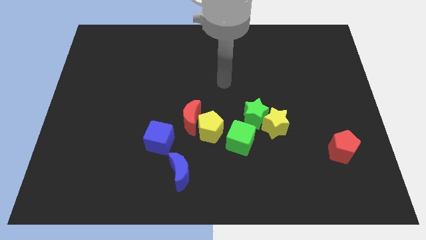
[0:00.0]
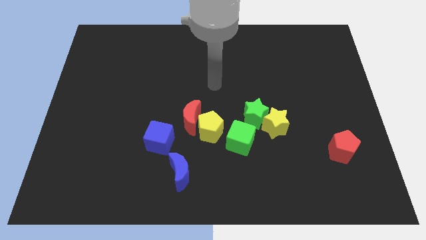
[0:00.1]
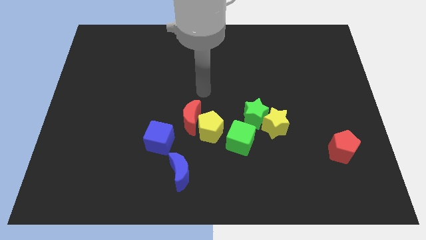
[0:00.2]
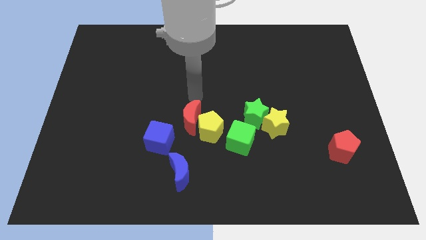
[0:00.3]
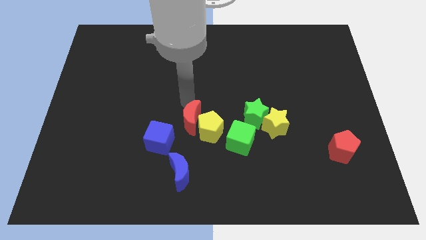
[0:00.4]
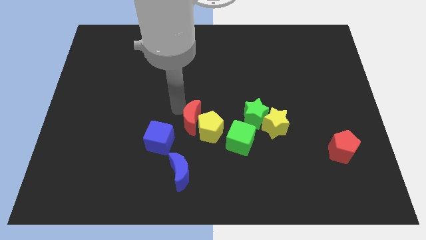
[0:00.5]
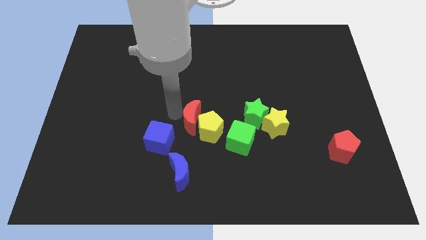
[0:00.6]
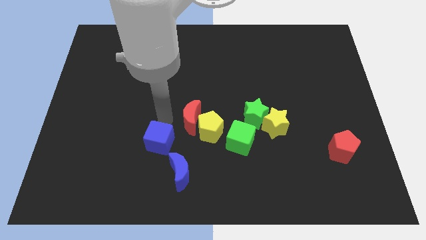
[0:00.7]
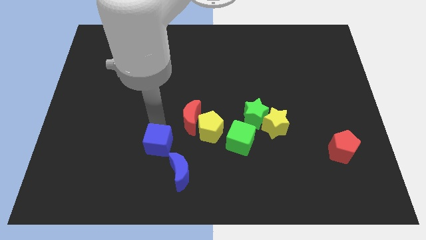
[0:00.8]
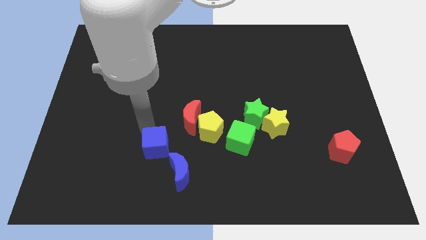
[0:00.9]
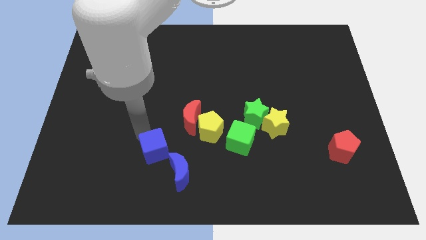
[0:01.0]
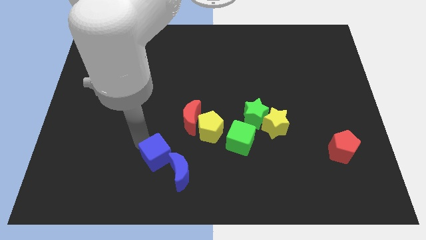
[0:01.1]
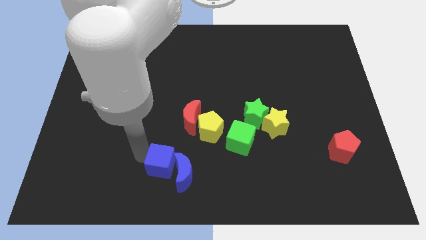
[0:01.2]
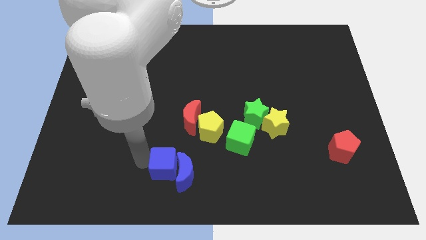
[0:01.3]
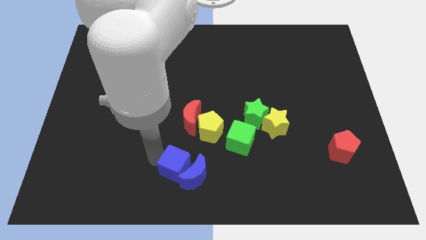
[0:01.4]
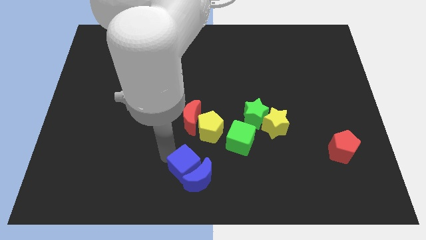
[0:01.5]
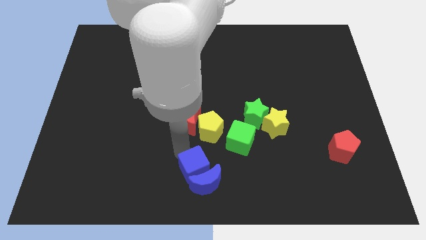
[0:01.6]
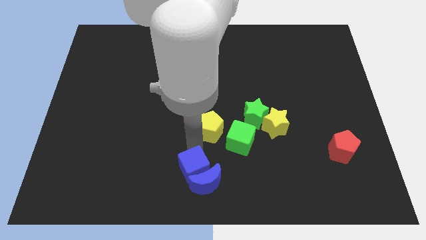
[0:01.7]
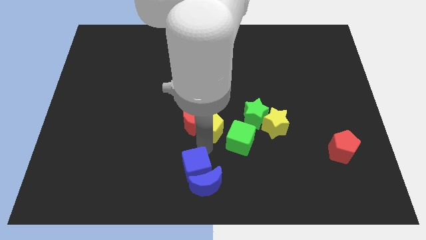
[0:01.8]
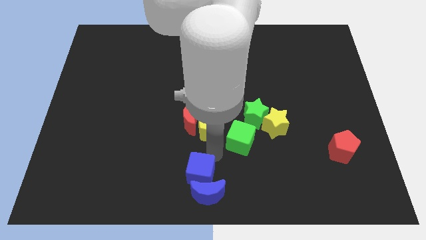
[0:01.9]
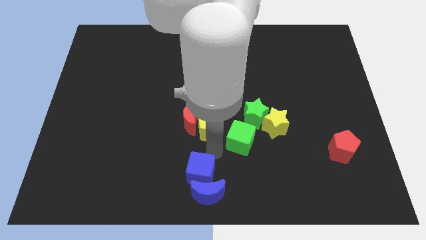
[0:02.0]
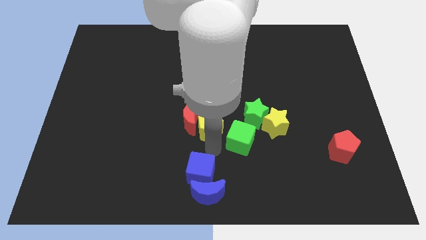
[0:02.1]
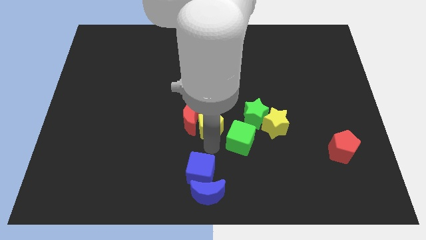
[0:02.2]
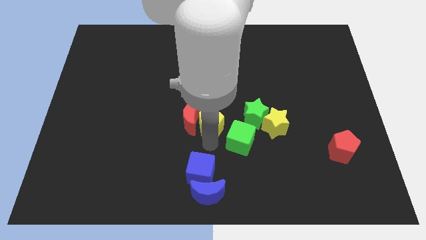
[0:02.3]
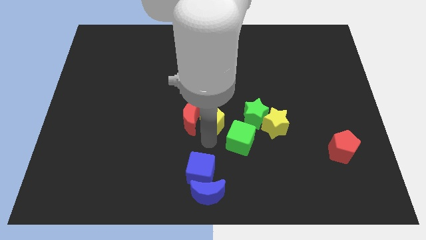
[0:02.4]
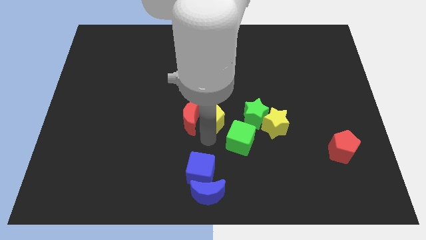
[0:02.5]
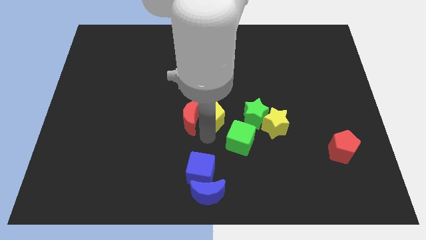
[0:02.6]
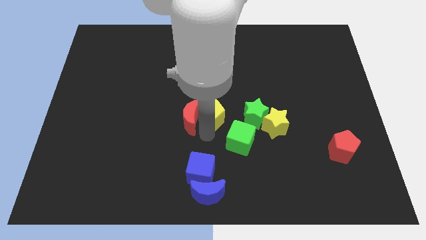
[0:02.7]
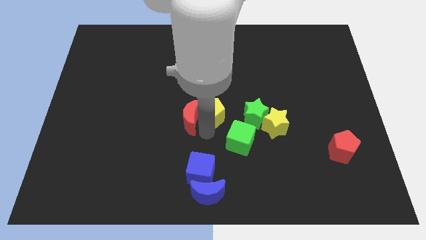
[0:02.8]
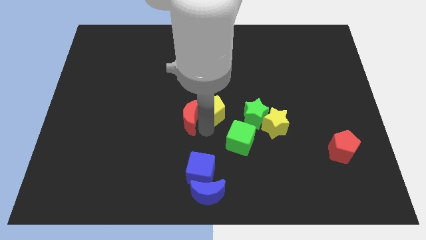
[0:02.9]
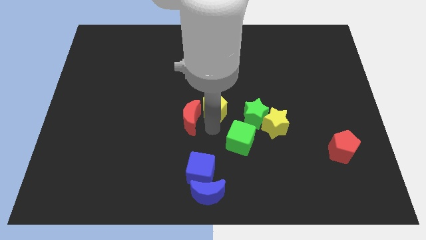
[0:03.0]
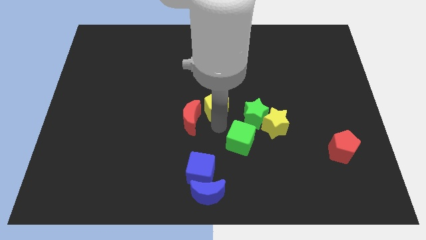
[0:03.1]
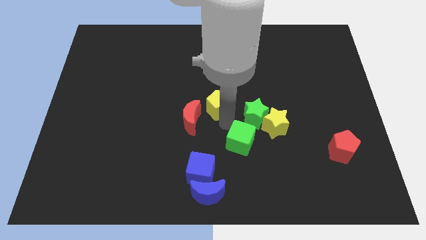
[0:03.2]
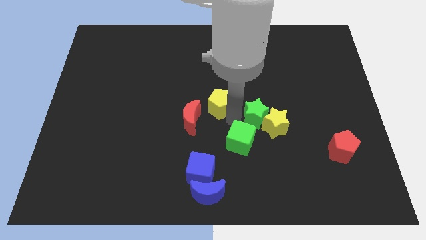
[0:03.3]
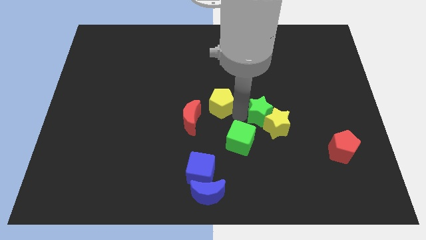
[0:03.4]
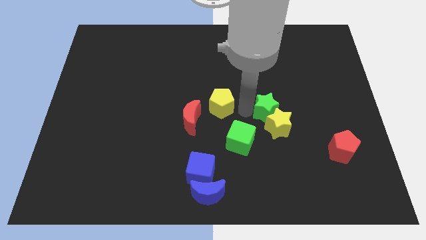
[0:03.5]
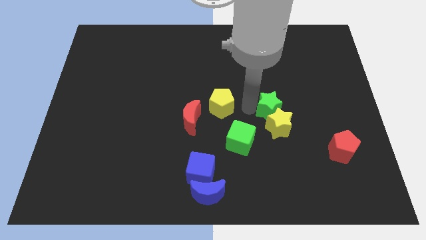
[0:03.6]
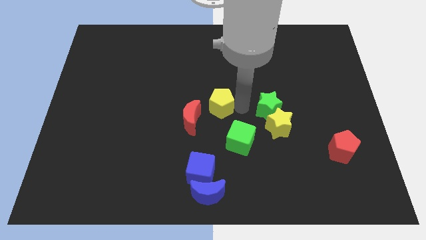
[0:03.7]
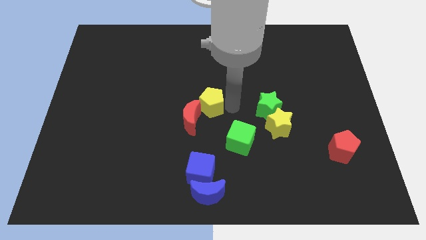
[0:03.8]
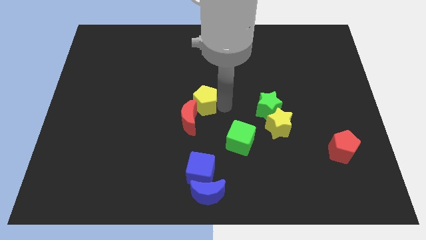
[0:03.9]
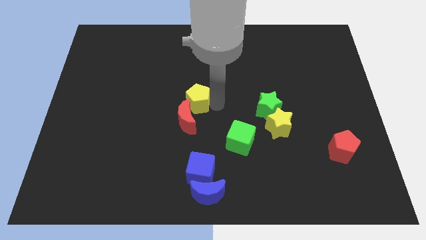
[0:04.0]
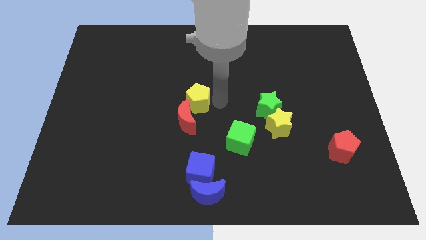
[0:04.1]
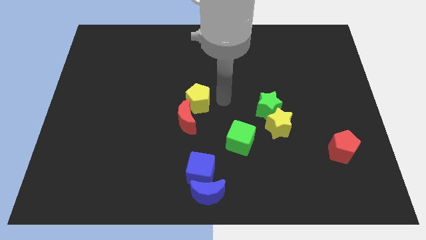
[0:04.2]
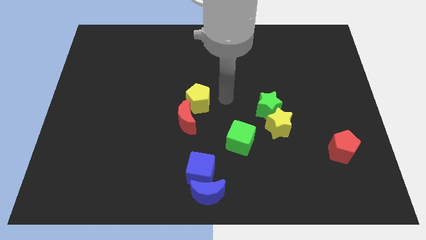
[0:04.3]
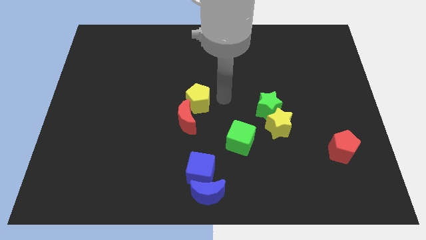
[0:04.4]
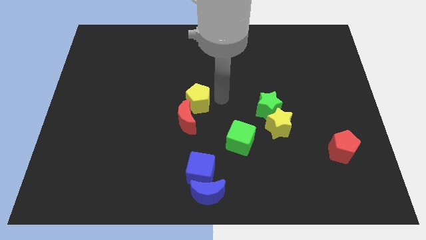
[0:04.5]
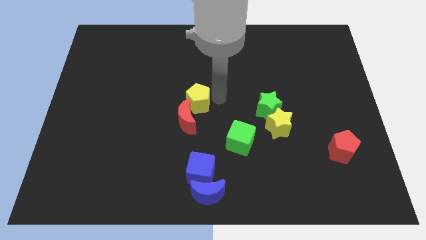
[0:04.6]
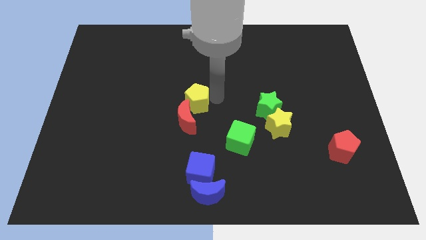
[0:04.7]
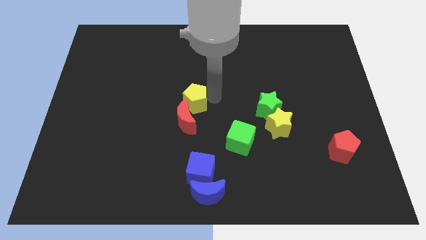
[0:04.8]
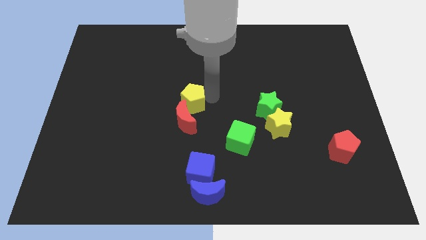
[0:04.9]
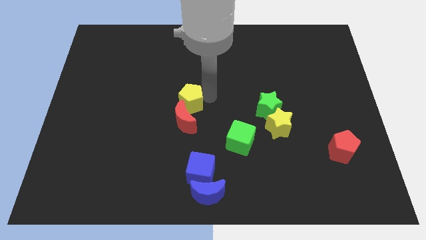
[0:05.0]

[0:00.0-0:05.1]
pull the yellow pentagon apart from the red moon and green cube

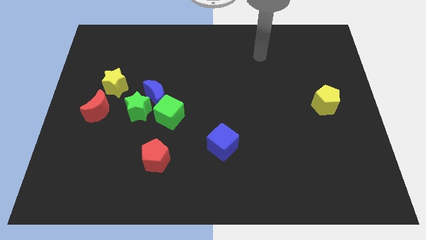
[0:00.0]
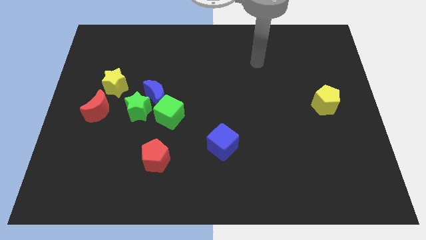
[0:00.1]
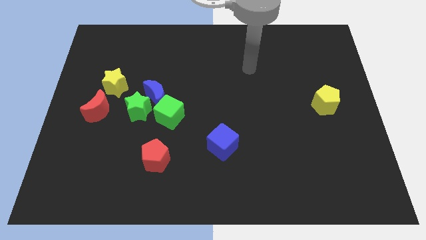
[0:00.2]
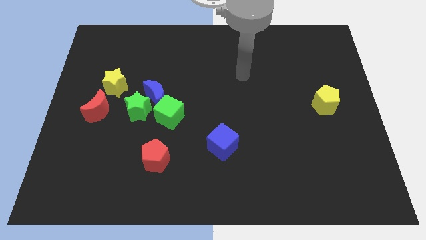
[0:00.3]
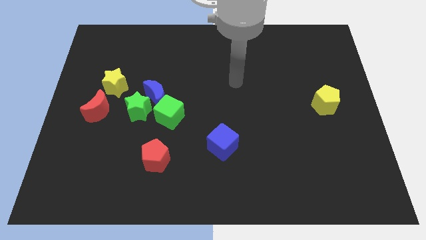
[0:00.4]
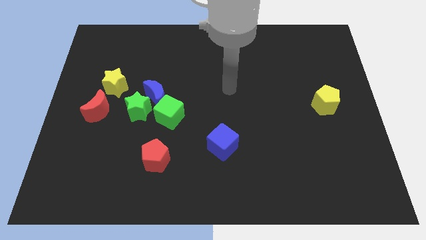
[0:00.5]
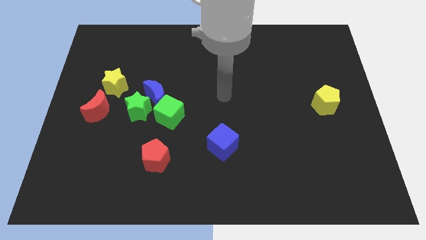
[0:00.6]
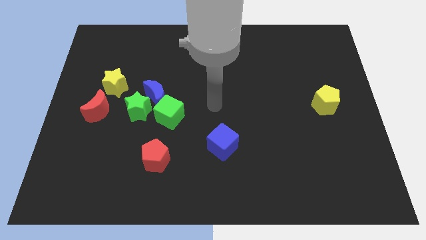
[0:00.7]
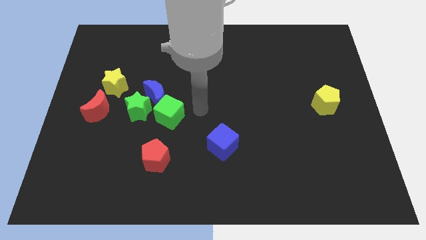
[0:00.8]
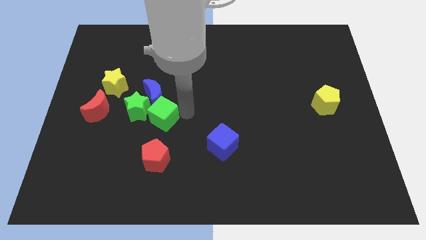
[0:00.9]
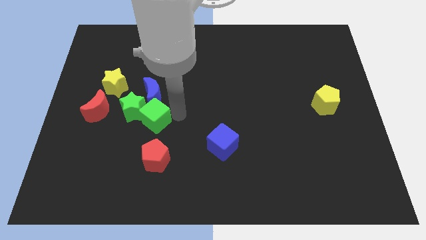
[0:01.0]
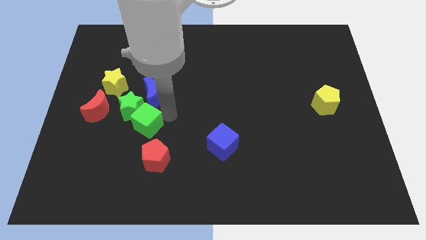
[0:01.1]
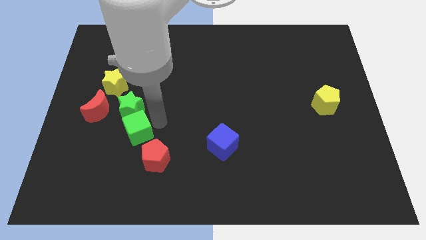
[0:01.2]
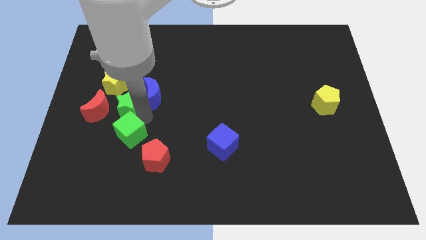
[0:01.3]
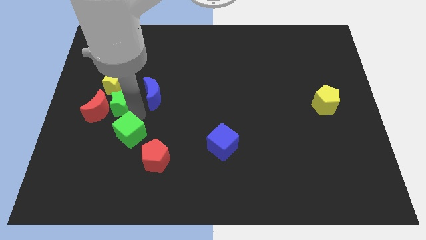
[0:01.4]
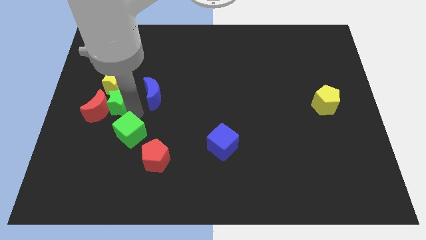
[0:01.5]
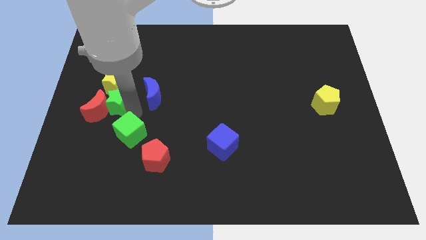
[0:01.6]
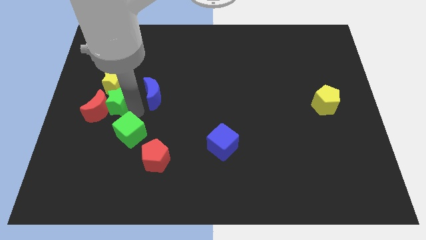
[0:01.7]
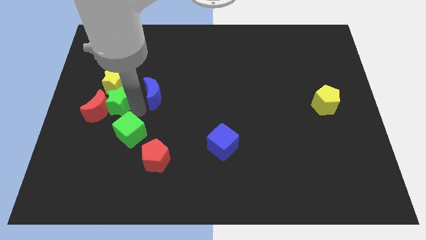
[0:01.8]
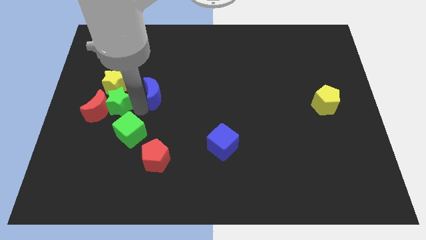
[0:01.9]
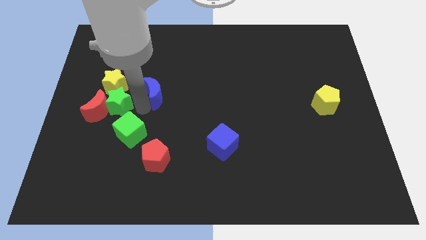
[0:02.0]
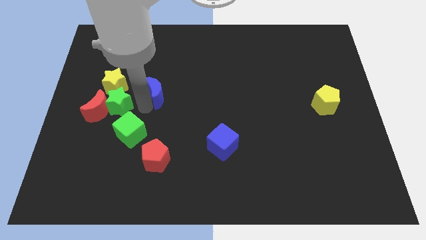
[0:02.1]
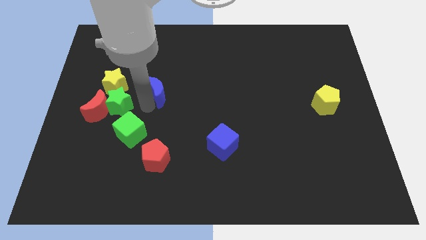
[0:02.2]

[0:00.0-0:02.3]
move the blue moon away from the green star and green cube

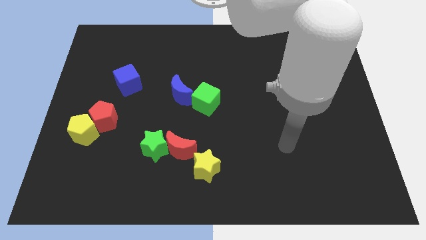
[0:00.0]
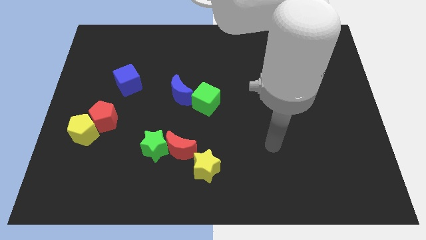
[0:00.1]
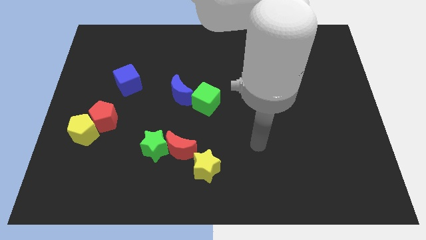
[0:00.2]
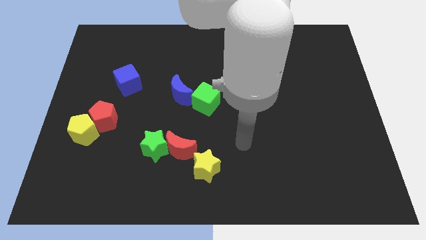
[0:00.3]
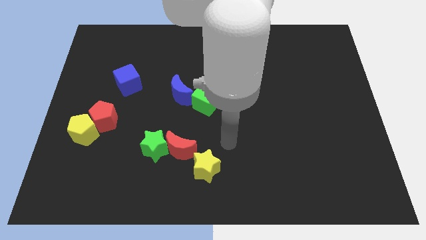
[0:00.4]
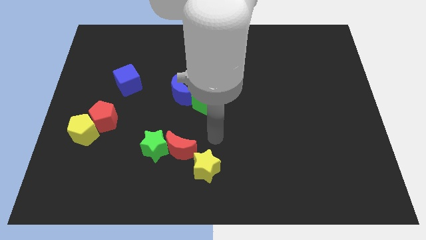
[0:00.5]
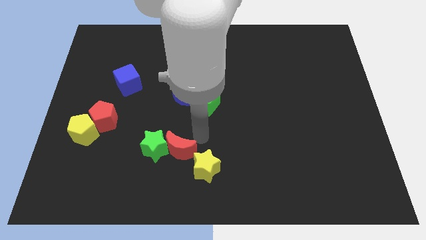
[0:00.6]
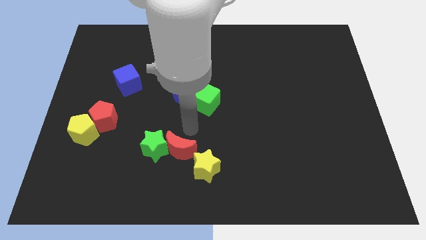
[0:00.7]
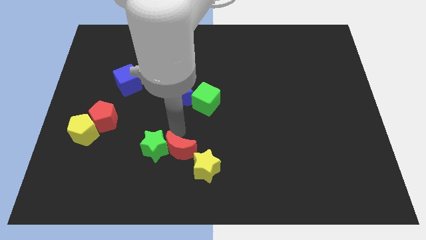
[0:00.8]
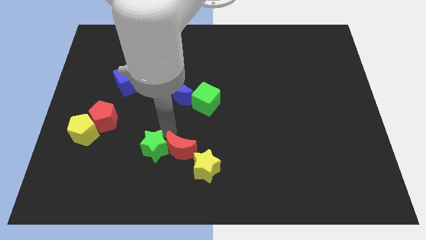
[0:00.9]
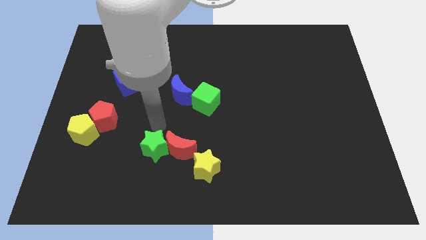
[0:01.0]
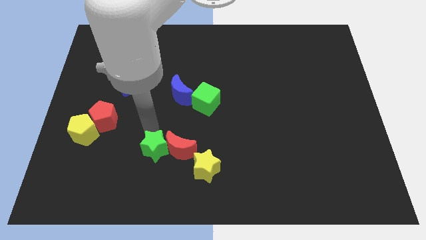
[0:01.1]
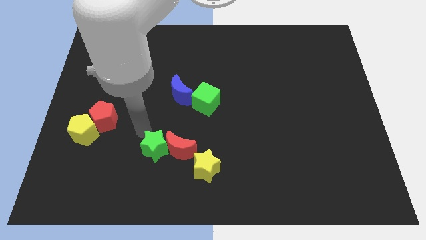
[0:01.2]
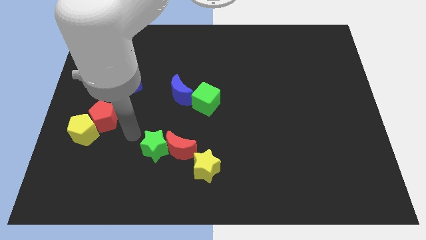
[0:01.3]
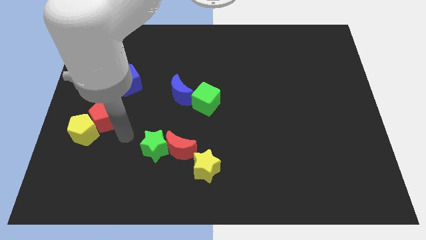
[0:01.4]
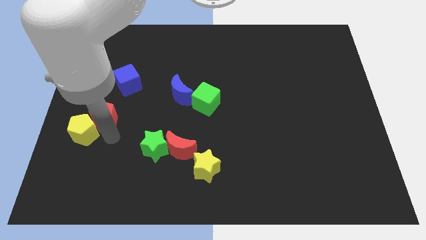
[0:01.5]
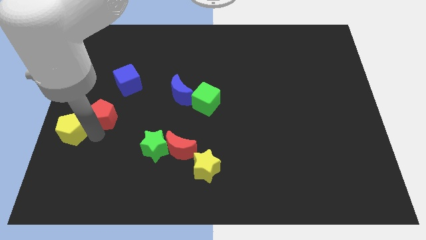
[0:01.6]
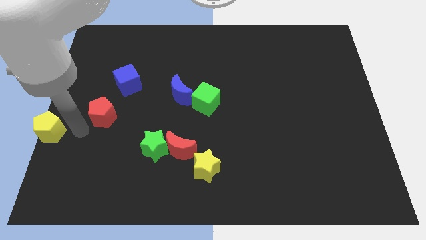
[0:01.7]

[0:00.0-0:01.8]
pull the red pentagon apart from the yellow pentagon

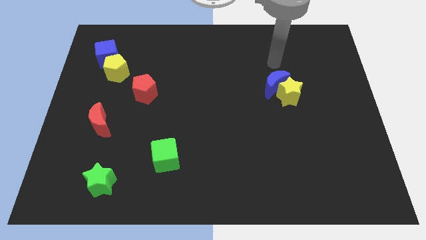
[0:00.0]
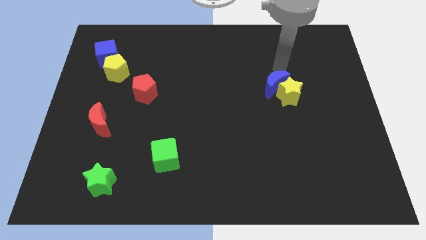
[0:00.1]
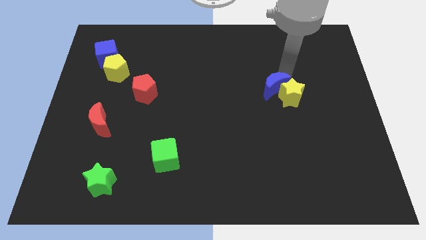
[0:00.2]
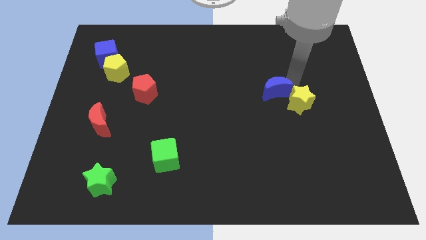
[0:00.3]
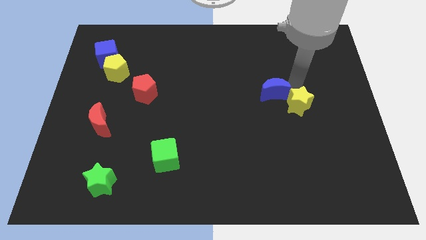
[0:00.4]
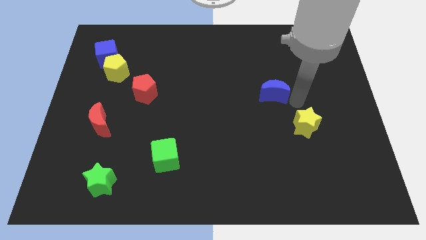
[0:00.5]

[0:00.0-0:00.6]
pull the blue moon apart from the yellow star
